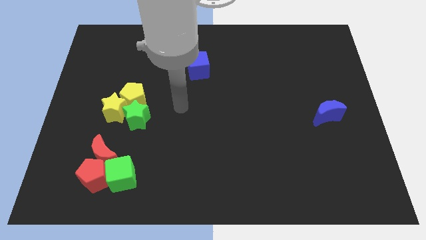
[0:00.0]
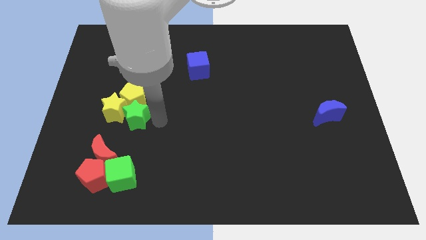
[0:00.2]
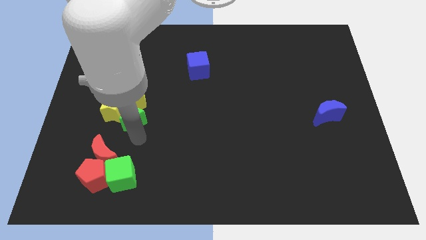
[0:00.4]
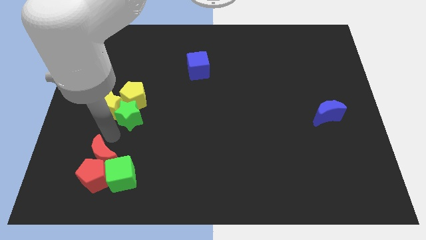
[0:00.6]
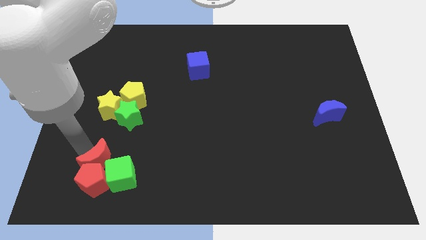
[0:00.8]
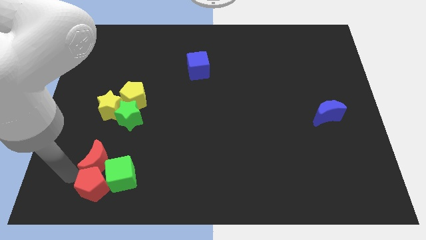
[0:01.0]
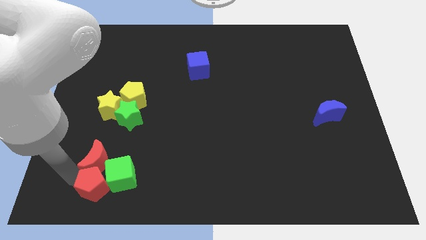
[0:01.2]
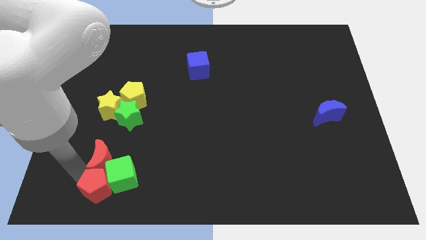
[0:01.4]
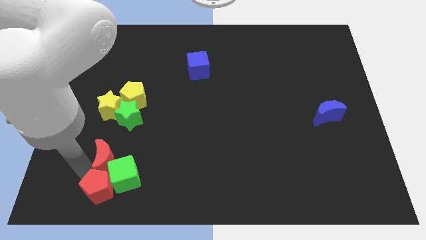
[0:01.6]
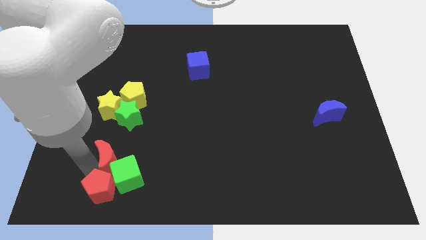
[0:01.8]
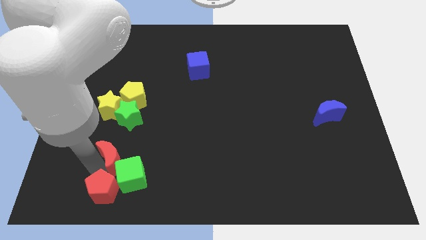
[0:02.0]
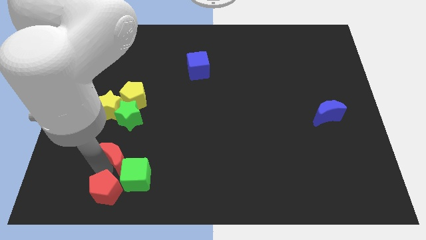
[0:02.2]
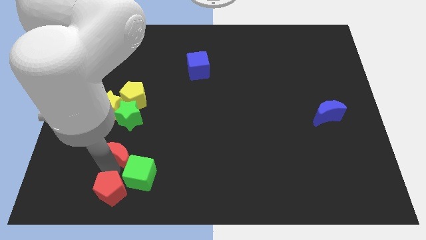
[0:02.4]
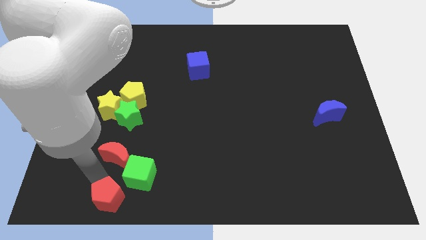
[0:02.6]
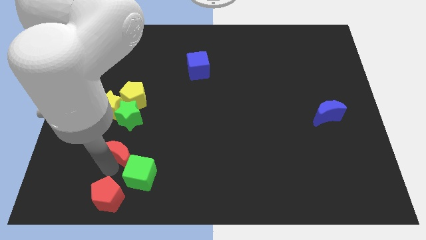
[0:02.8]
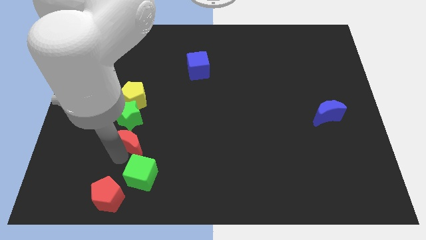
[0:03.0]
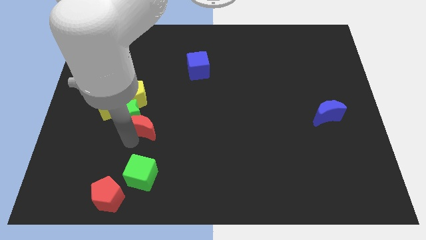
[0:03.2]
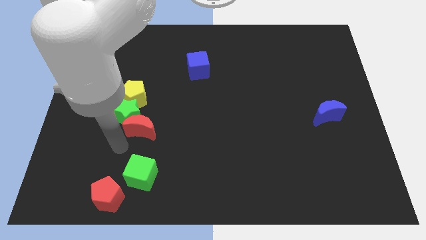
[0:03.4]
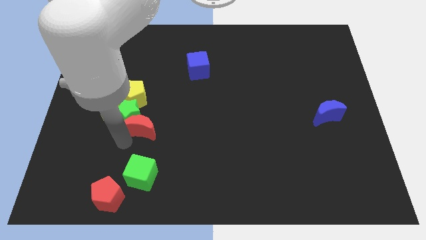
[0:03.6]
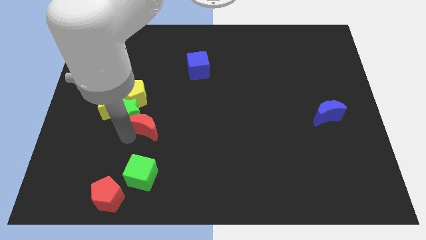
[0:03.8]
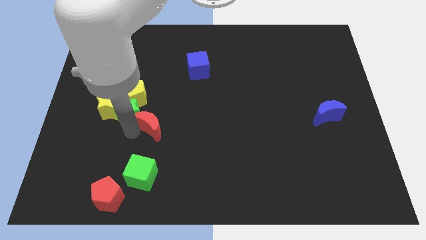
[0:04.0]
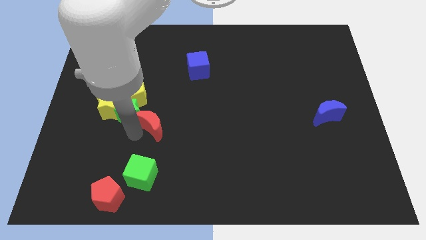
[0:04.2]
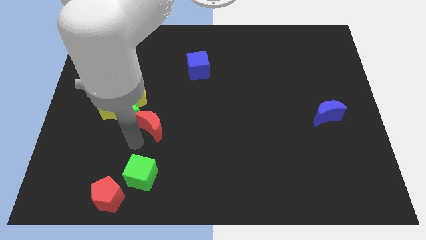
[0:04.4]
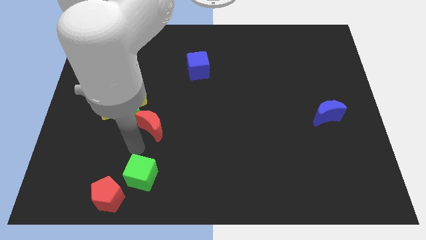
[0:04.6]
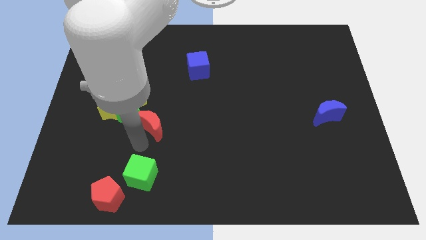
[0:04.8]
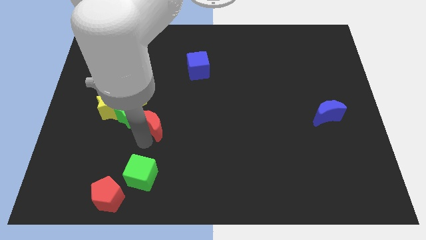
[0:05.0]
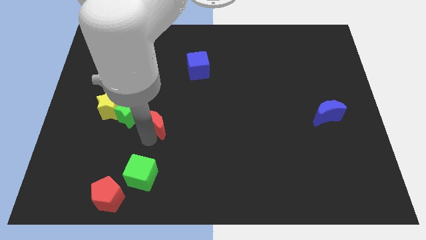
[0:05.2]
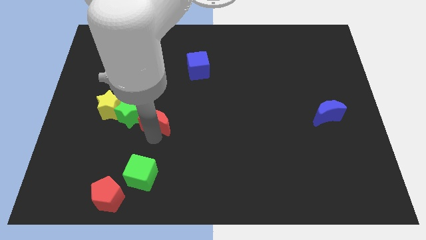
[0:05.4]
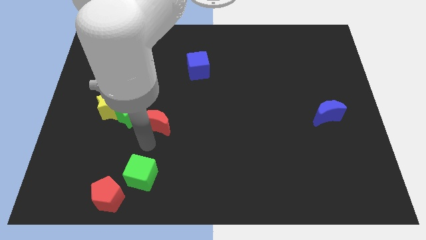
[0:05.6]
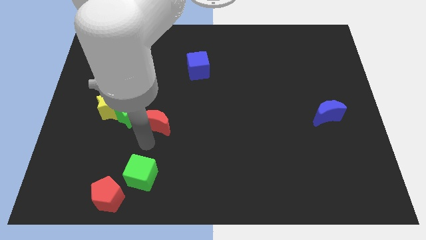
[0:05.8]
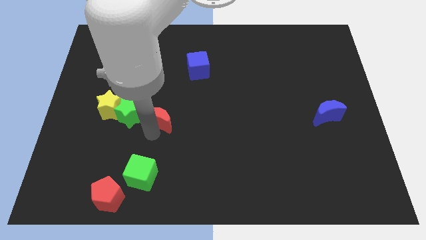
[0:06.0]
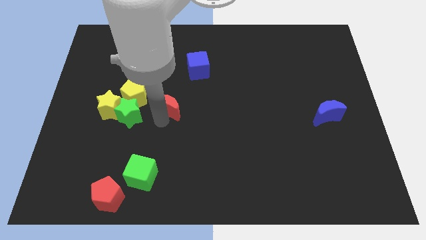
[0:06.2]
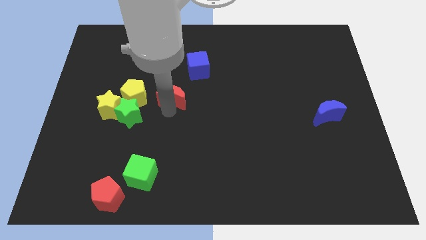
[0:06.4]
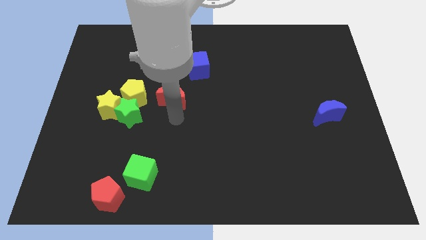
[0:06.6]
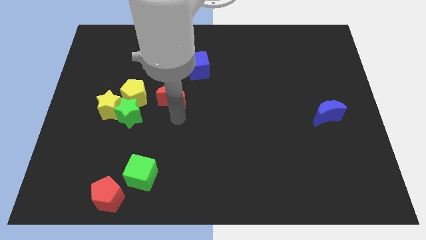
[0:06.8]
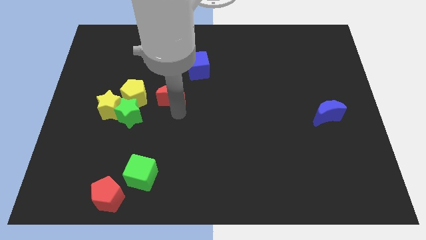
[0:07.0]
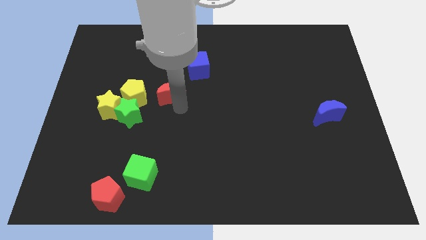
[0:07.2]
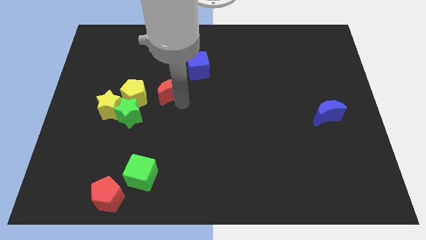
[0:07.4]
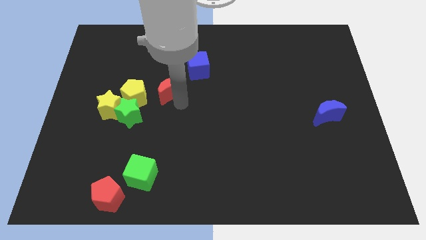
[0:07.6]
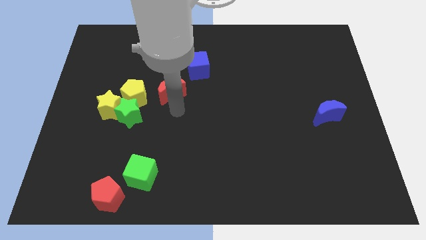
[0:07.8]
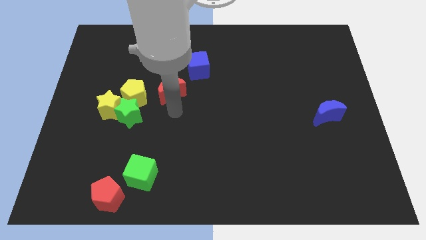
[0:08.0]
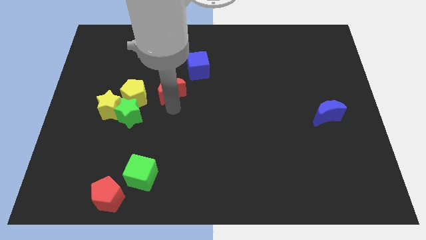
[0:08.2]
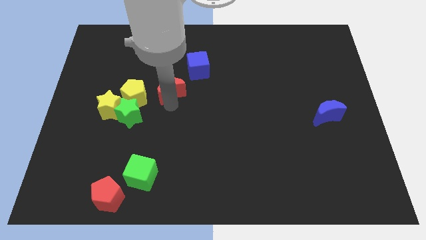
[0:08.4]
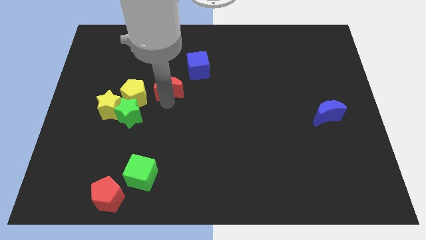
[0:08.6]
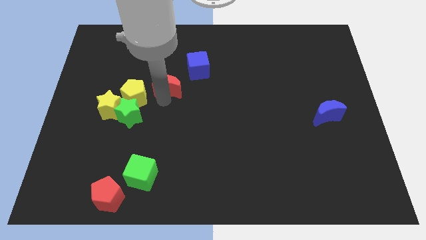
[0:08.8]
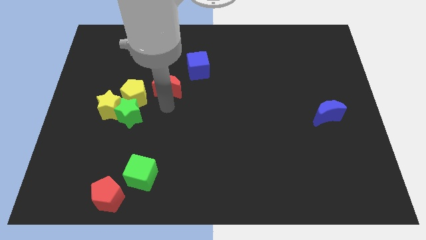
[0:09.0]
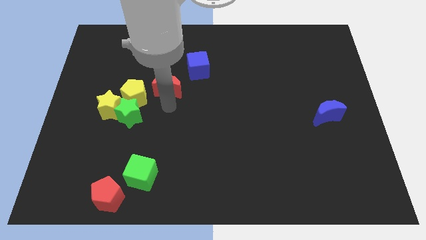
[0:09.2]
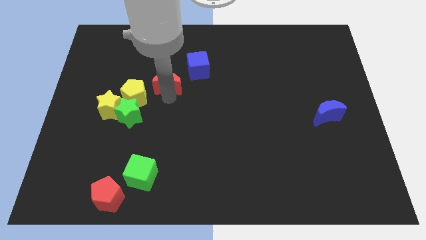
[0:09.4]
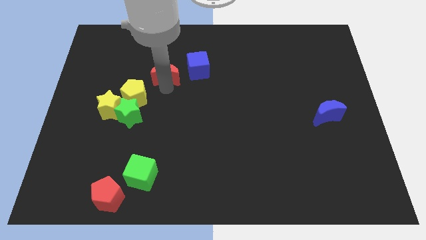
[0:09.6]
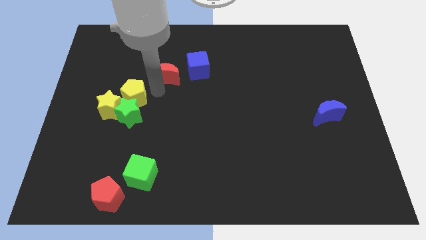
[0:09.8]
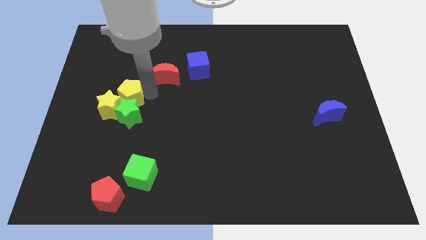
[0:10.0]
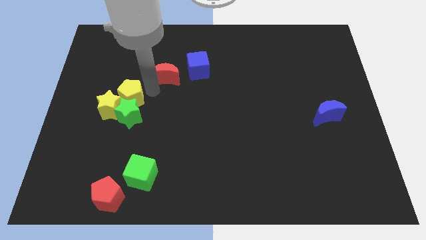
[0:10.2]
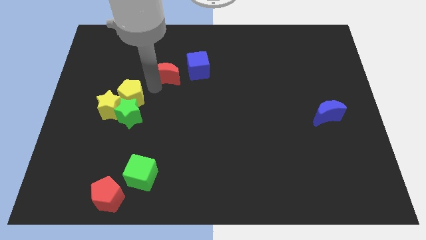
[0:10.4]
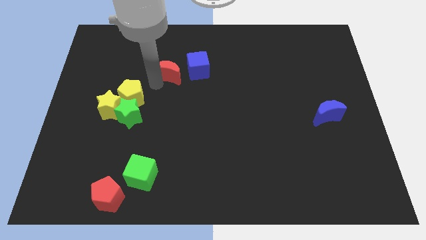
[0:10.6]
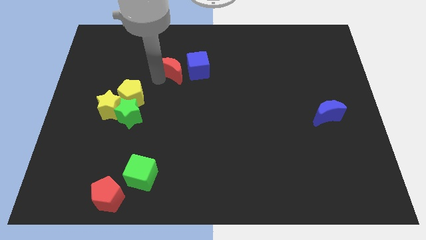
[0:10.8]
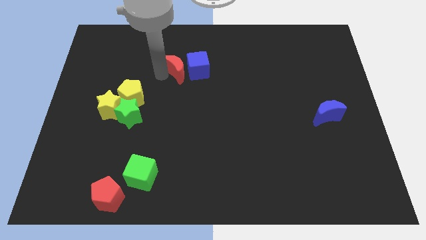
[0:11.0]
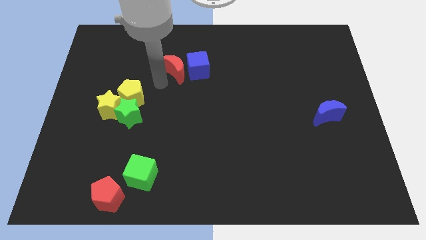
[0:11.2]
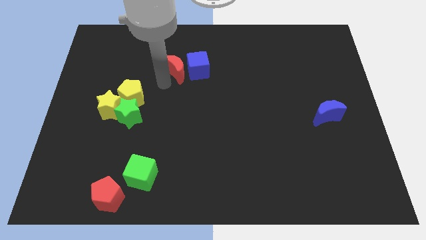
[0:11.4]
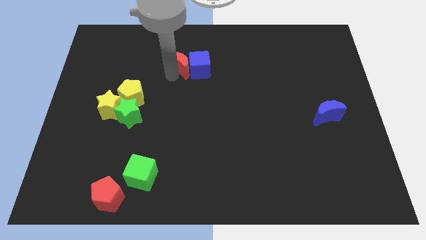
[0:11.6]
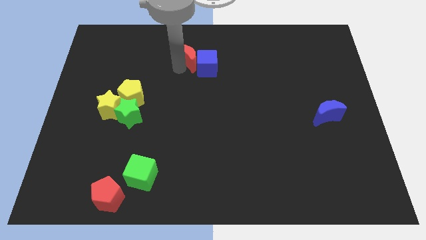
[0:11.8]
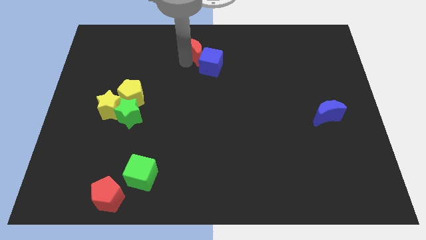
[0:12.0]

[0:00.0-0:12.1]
put the red moon to the towards your base
